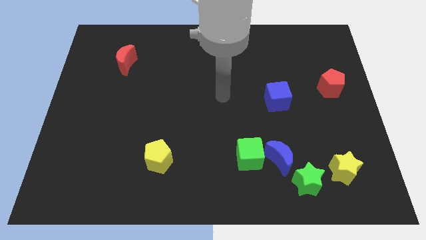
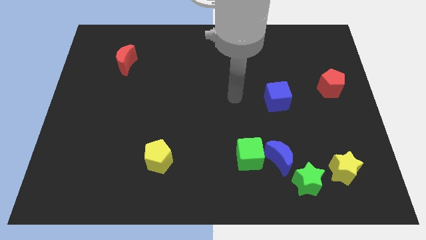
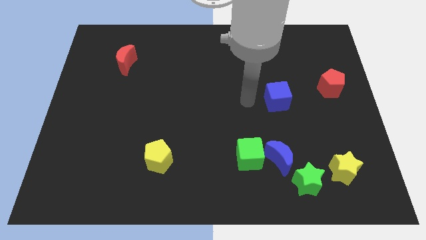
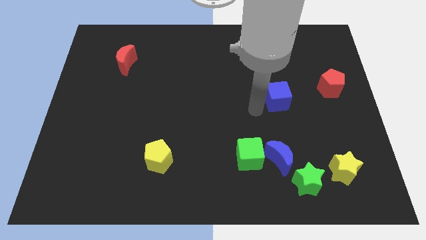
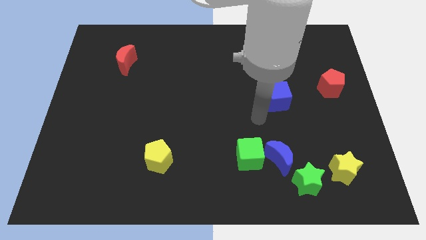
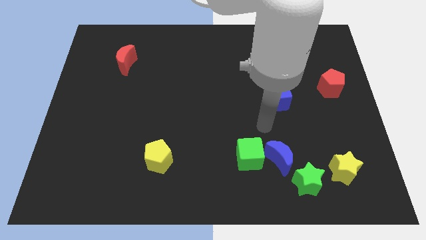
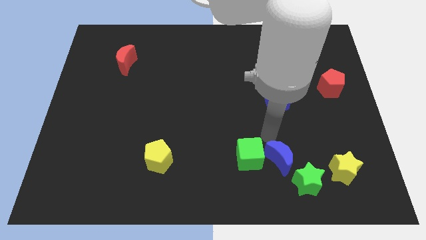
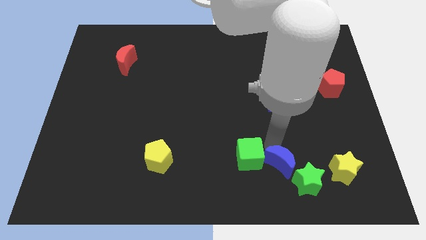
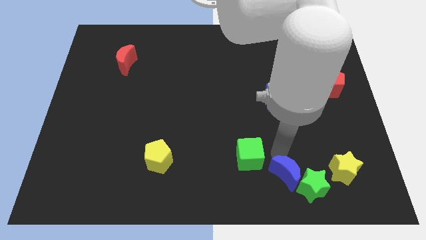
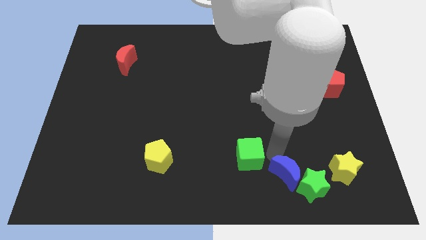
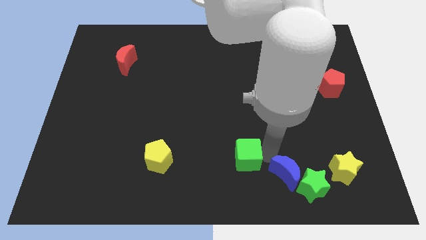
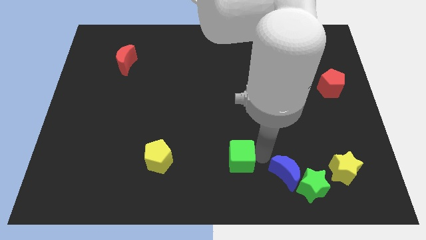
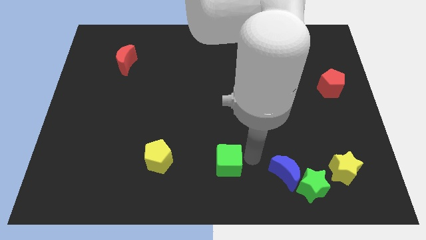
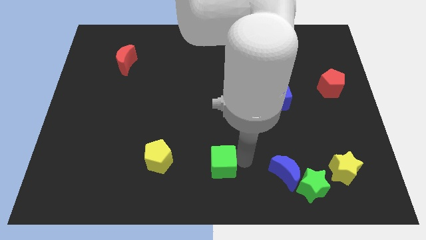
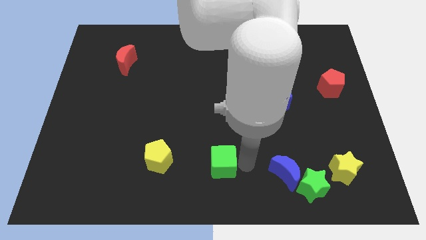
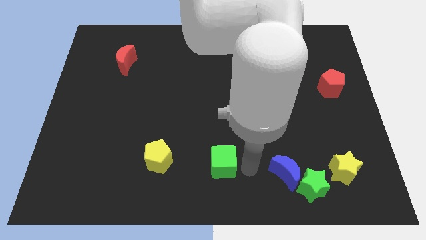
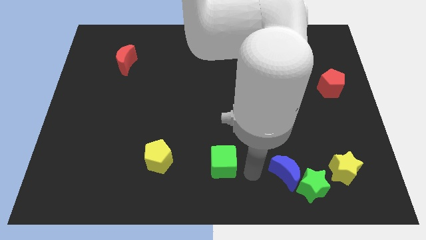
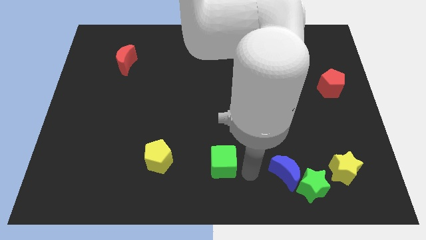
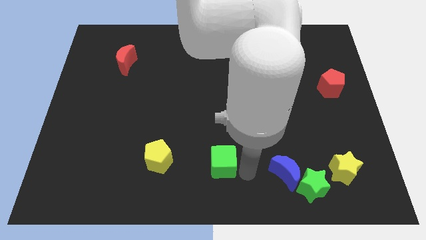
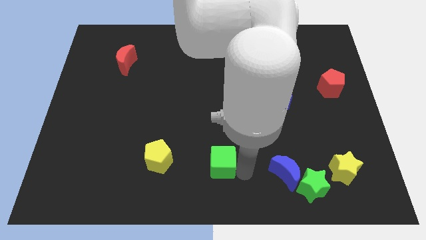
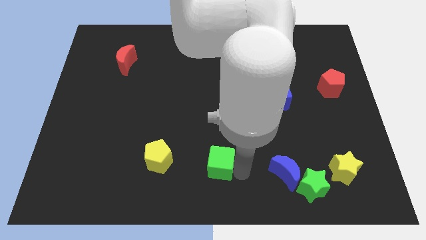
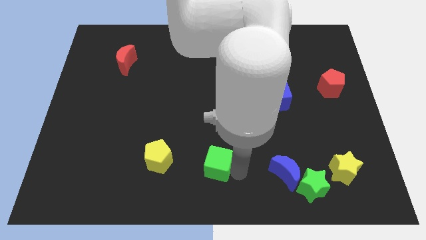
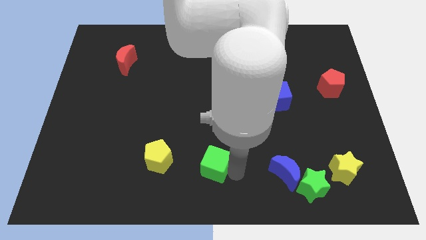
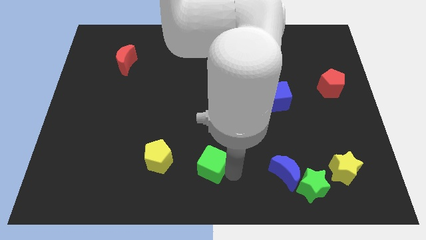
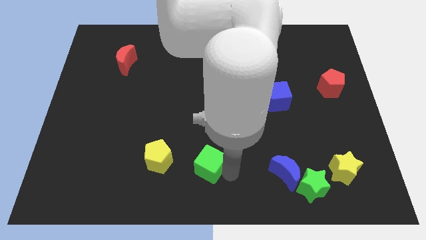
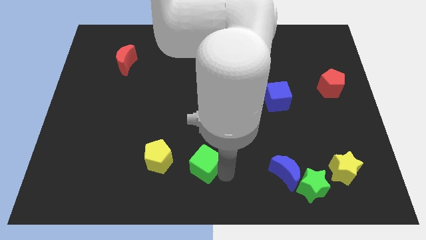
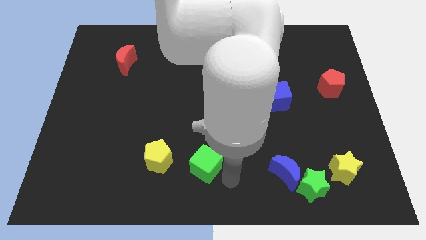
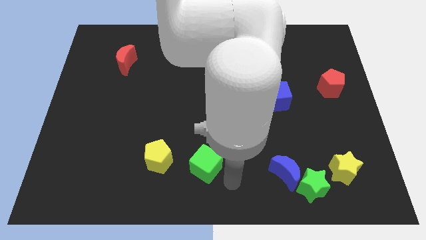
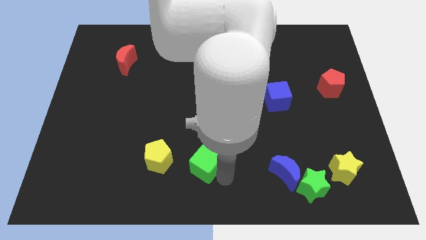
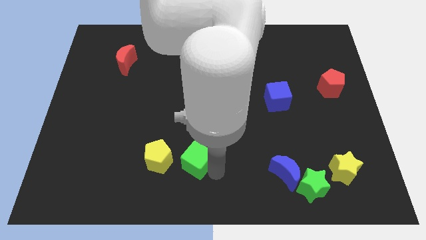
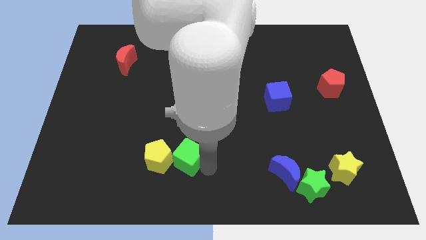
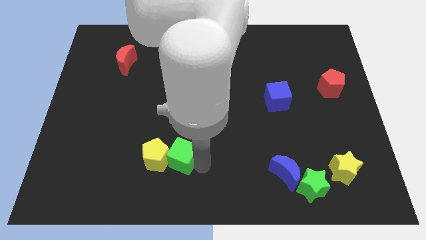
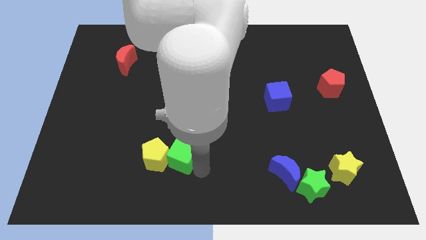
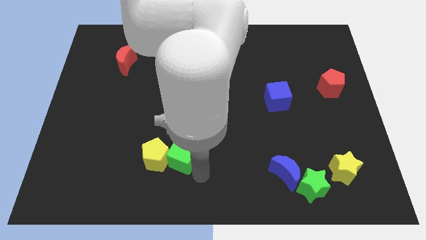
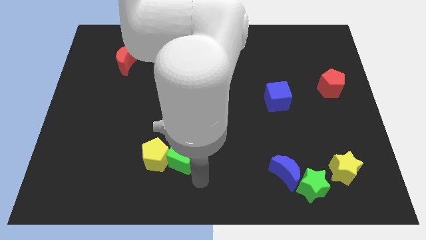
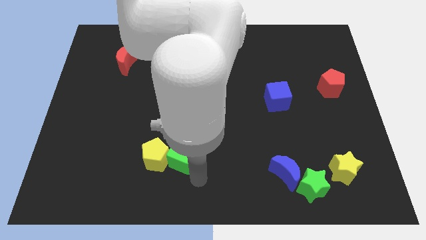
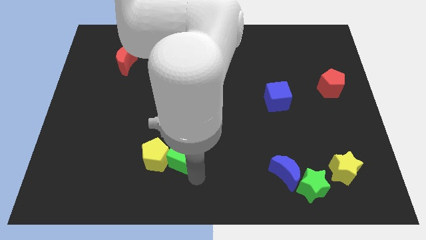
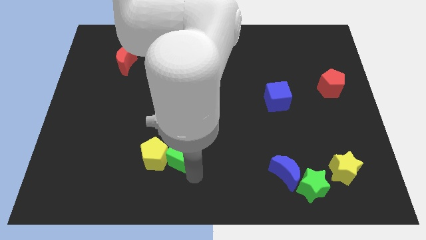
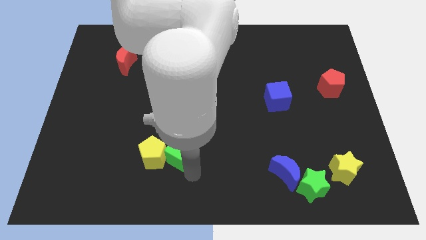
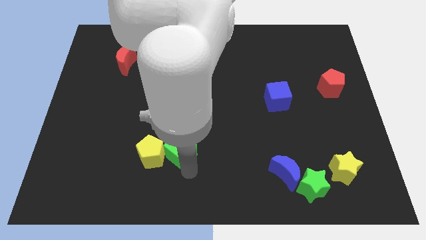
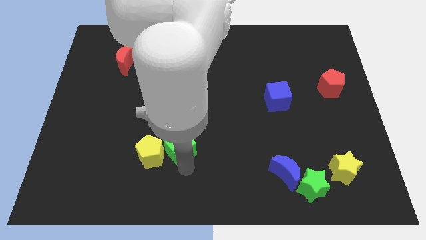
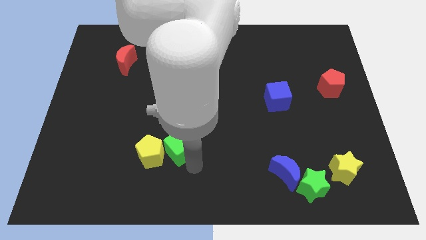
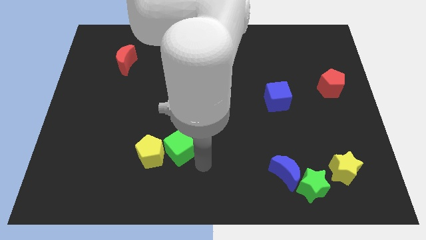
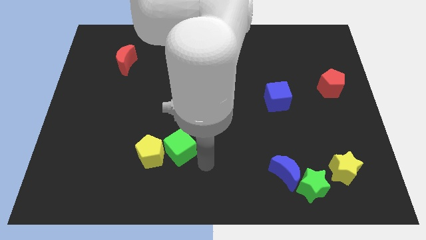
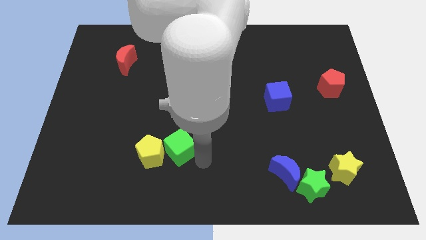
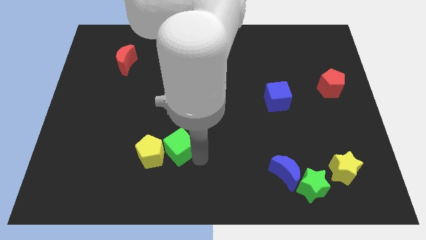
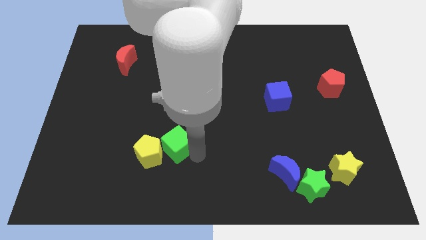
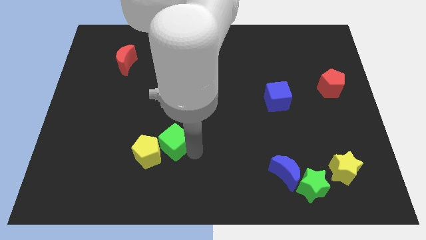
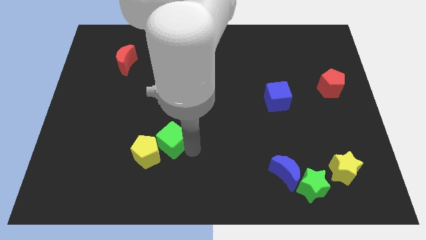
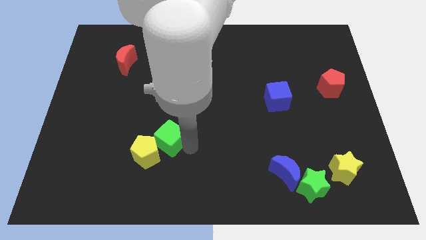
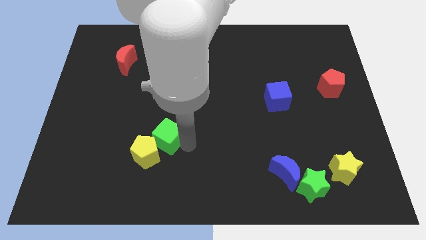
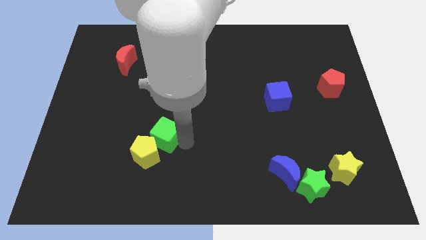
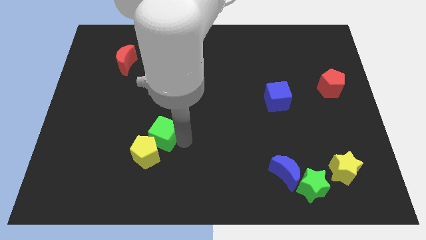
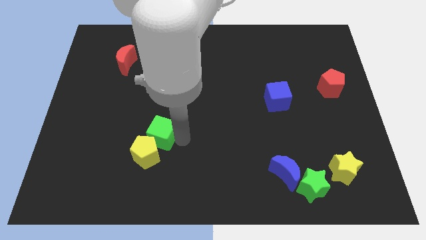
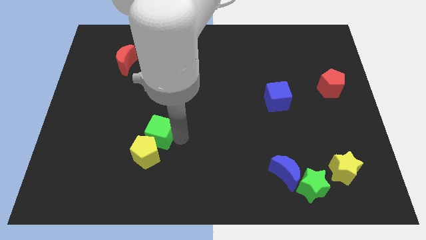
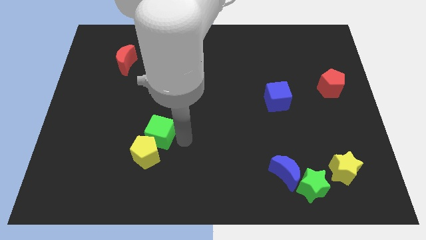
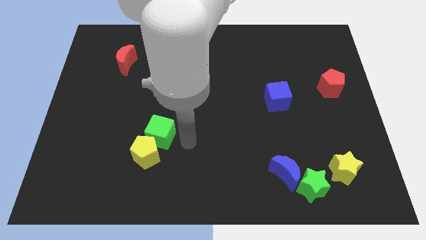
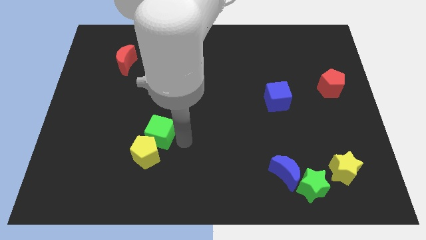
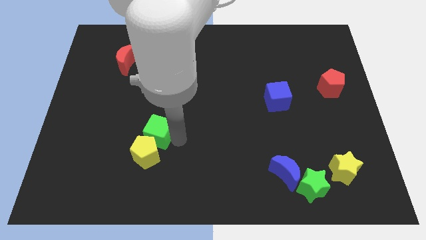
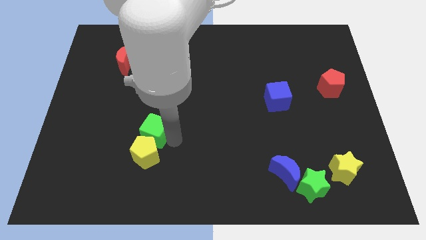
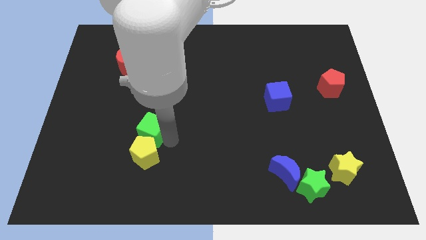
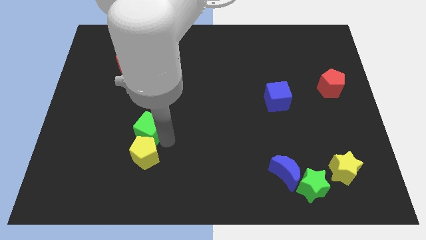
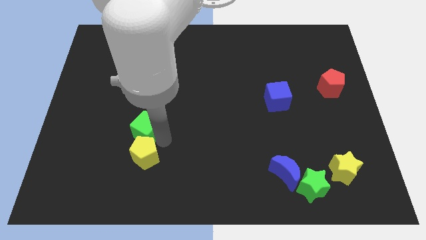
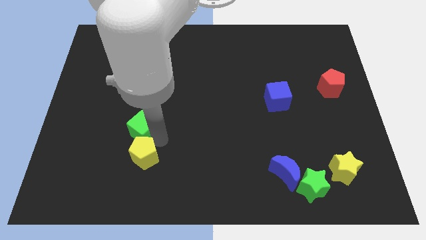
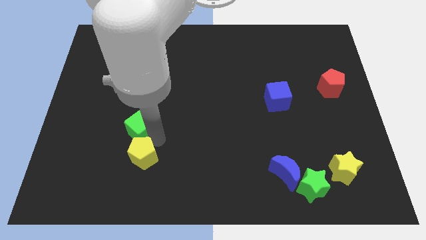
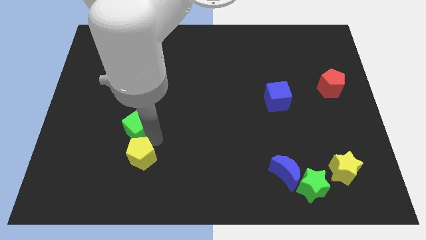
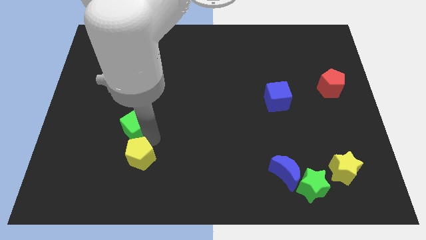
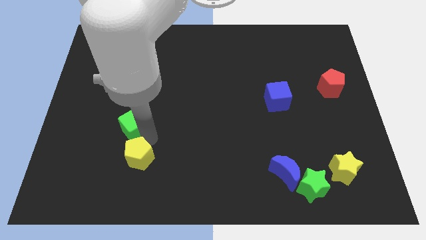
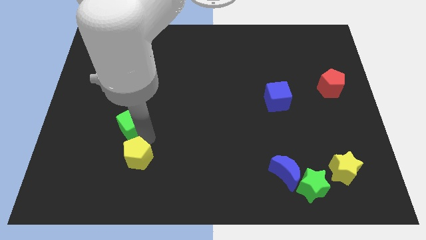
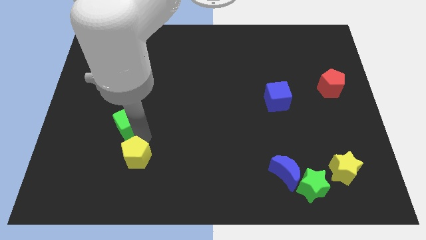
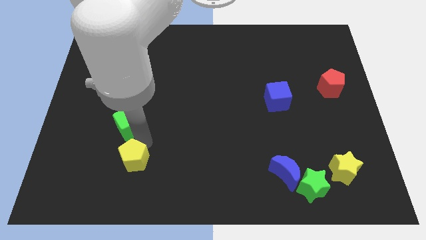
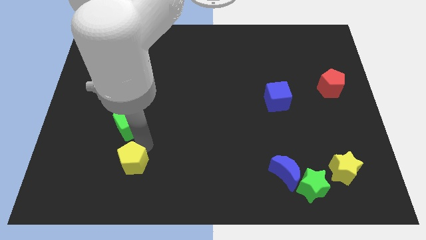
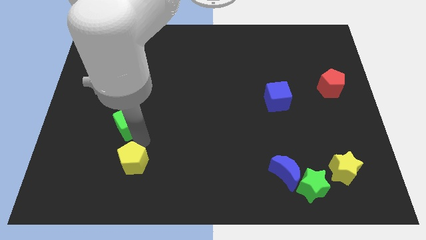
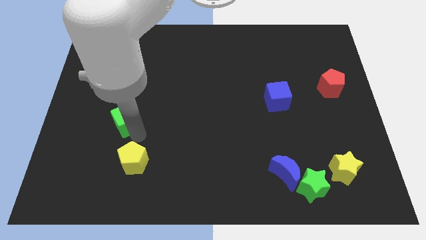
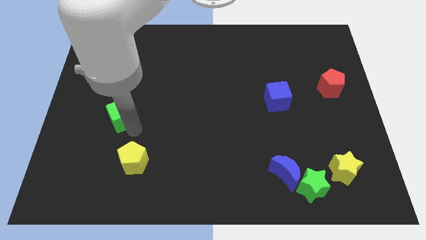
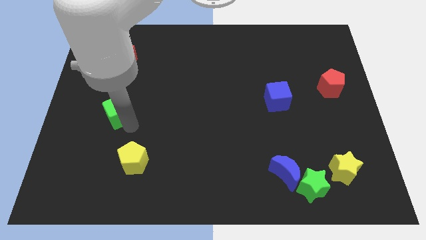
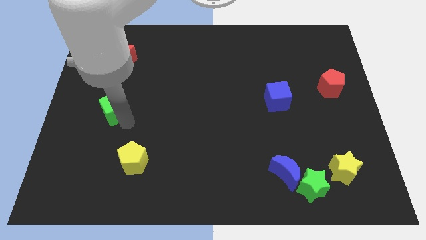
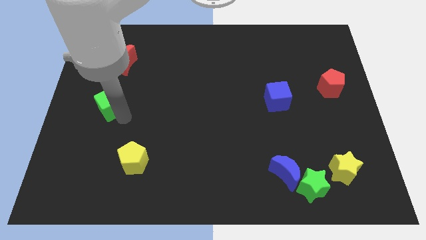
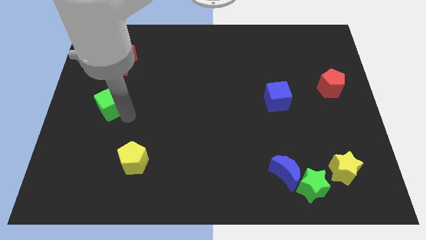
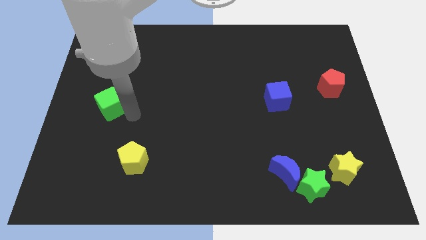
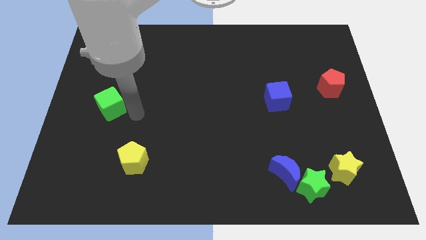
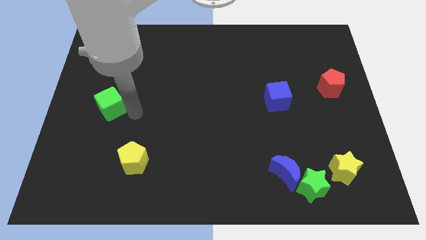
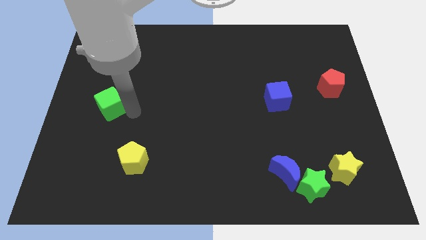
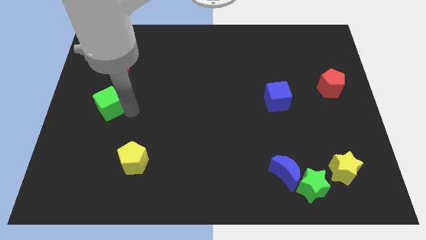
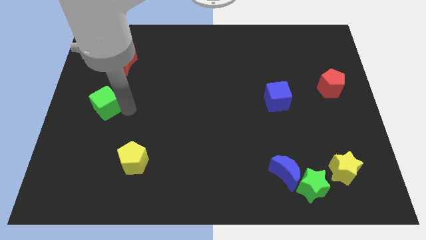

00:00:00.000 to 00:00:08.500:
move the green cube to the center left
